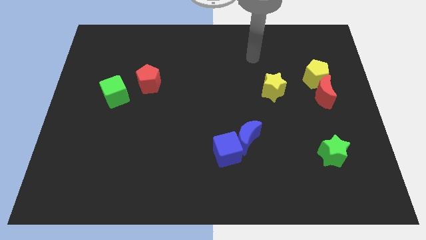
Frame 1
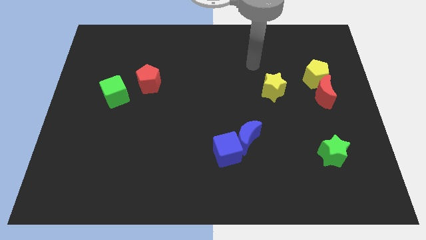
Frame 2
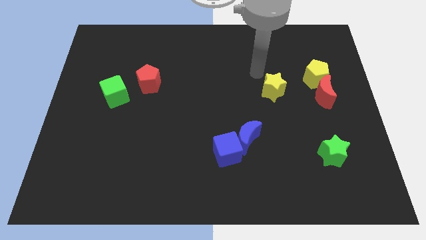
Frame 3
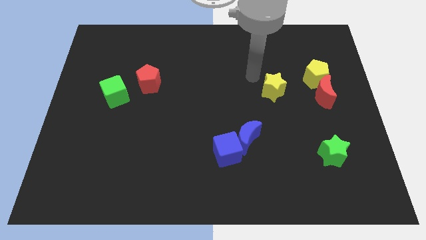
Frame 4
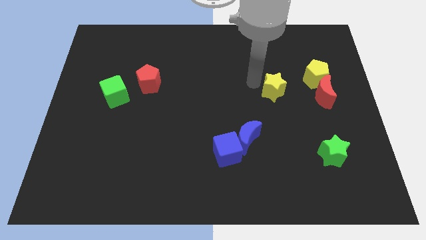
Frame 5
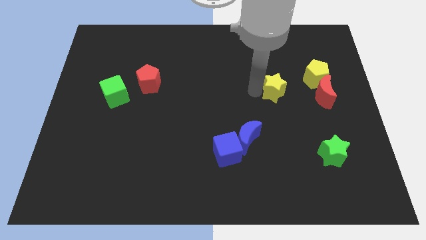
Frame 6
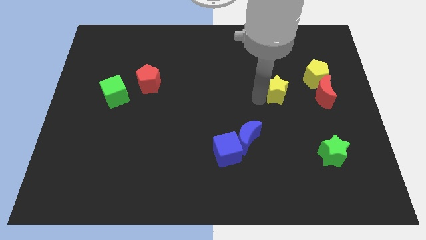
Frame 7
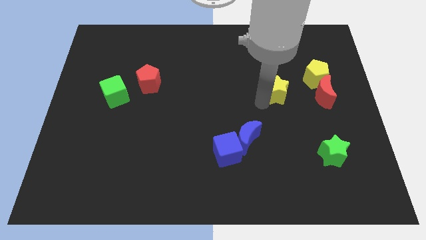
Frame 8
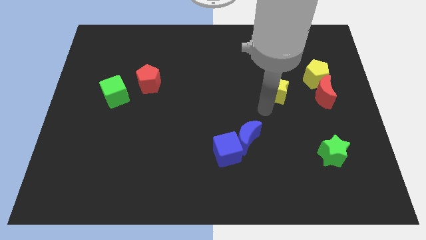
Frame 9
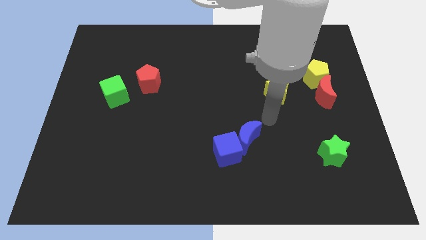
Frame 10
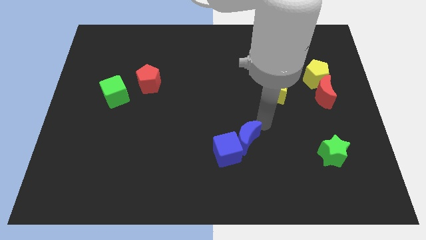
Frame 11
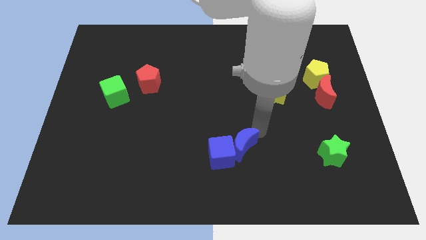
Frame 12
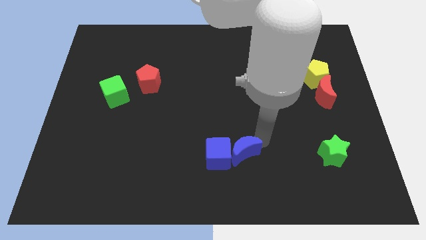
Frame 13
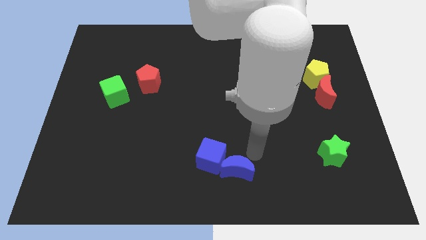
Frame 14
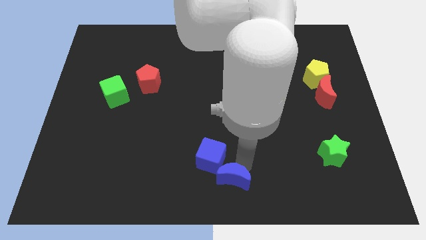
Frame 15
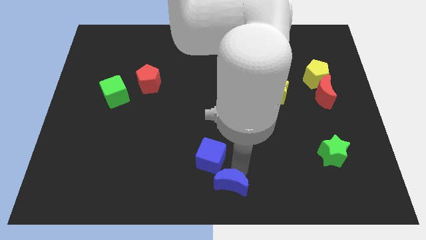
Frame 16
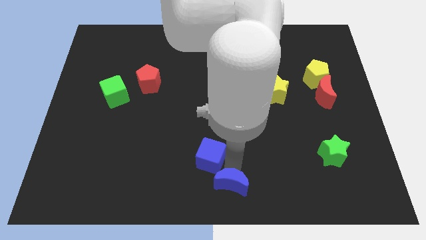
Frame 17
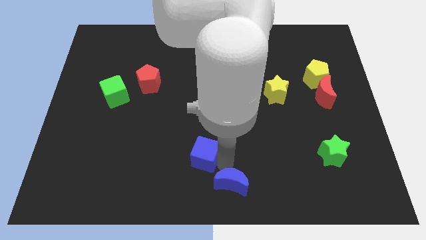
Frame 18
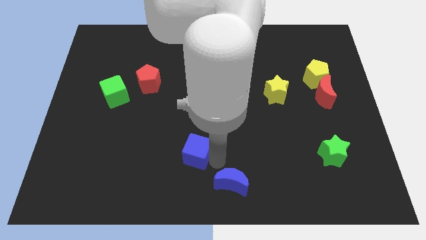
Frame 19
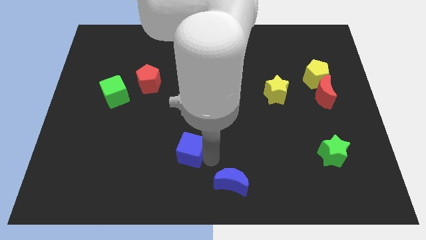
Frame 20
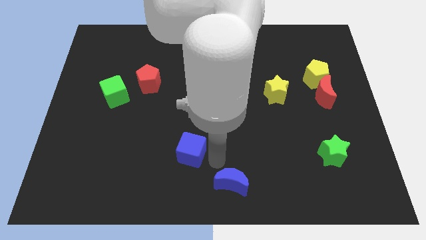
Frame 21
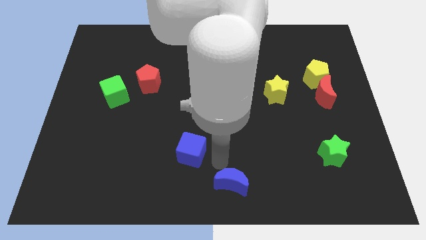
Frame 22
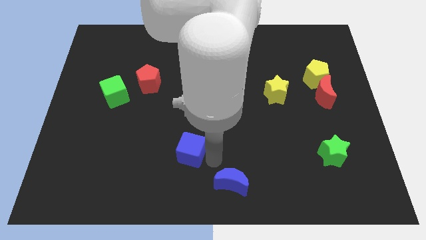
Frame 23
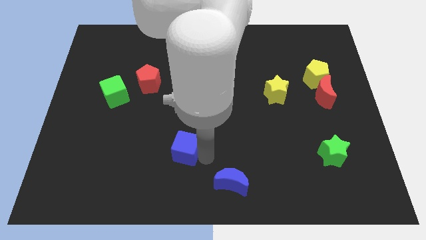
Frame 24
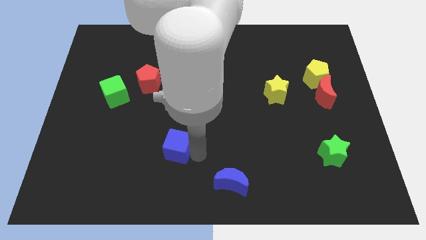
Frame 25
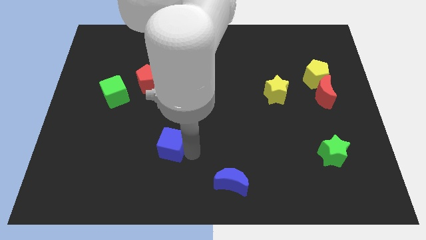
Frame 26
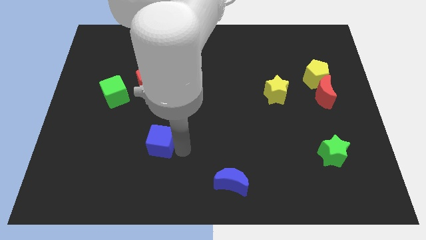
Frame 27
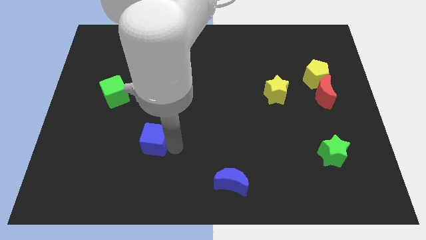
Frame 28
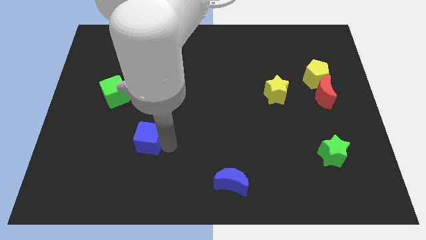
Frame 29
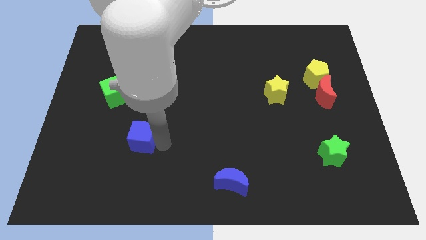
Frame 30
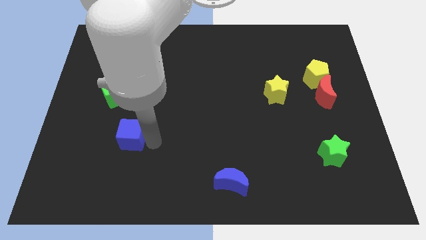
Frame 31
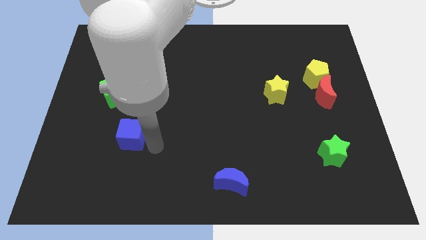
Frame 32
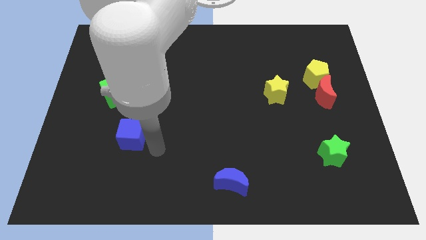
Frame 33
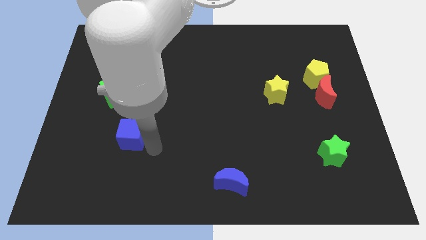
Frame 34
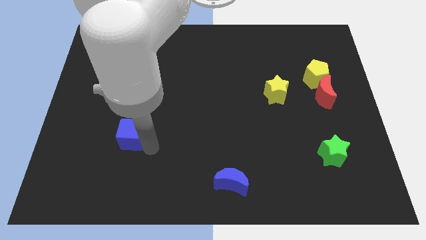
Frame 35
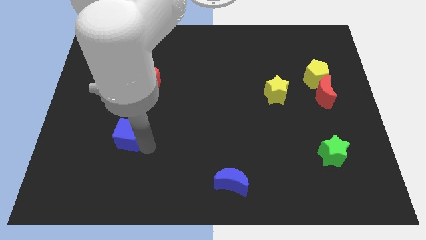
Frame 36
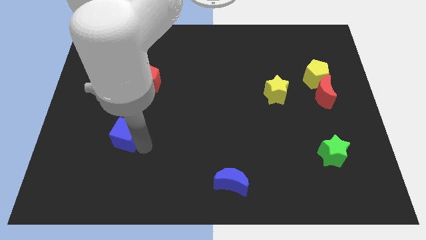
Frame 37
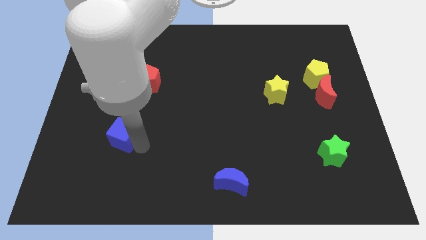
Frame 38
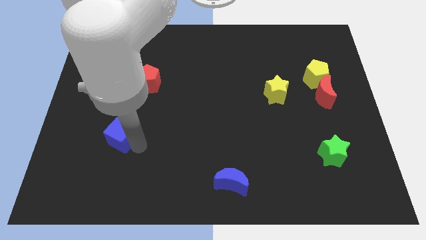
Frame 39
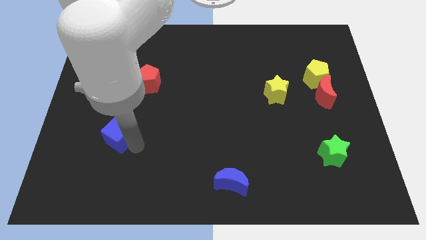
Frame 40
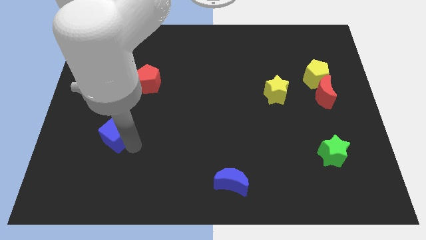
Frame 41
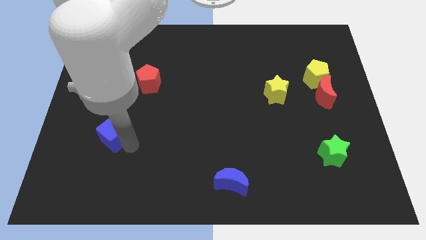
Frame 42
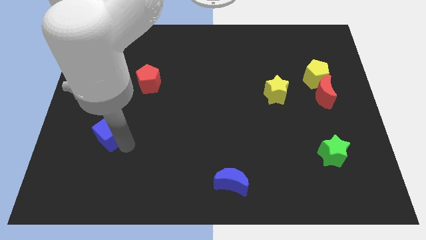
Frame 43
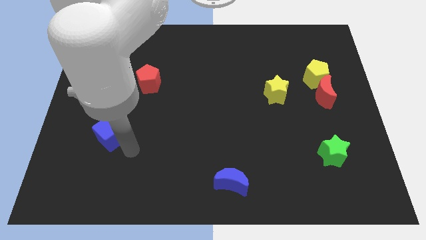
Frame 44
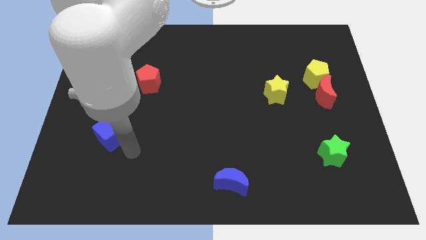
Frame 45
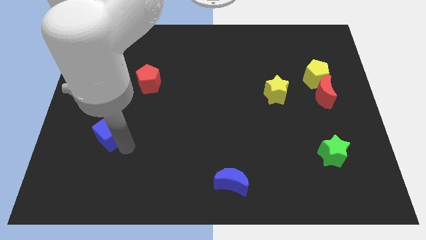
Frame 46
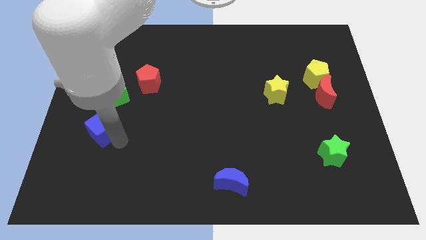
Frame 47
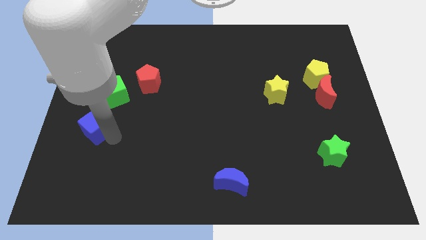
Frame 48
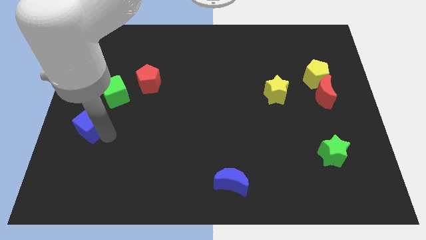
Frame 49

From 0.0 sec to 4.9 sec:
put the blue cube to the left side

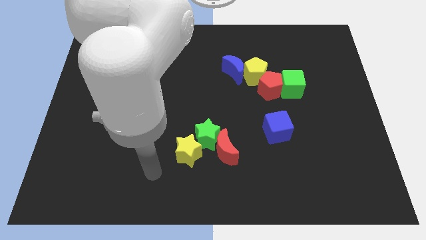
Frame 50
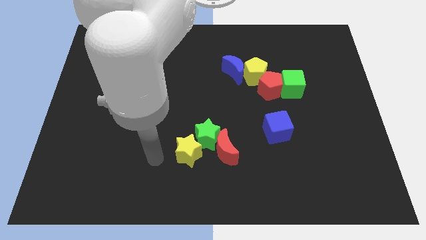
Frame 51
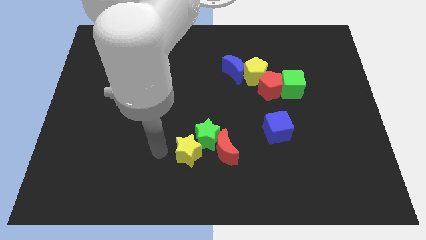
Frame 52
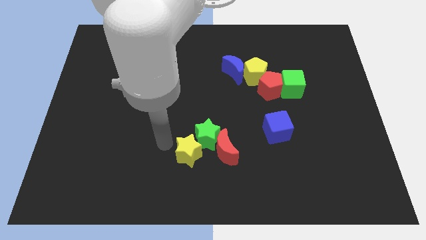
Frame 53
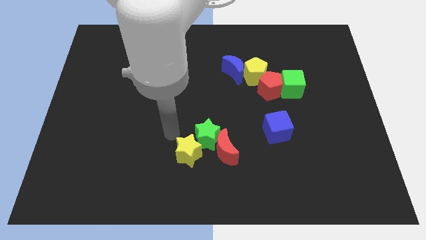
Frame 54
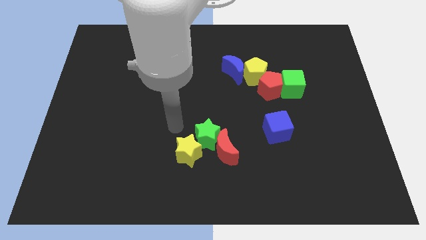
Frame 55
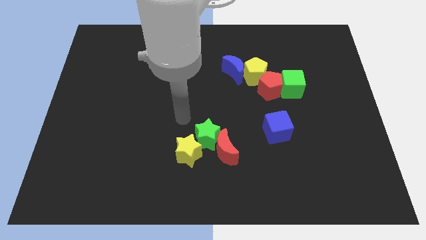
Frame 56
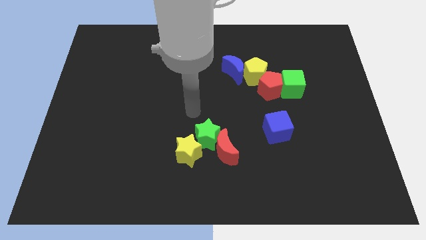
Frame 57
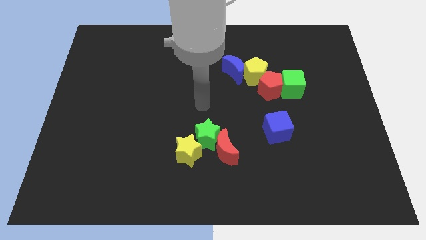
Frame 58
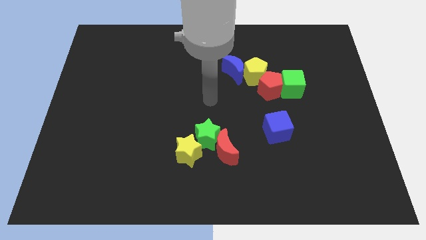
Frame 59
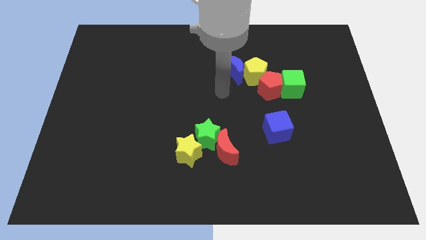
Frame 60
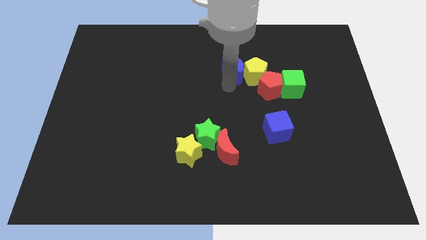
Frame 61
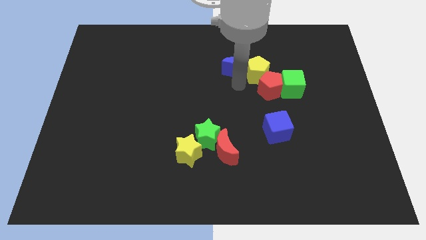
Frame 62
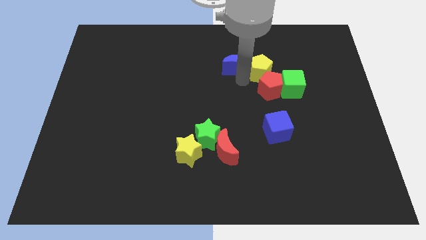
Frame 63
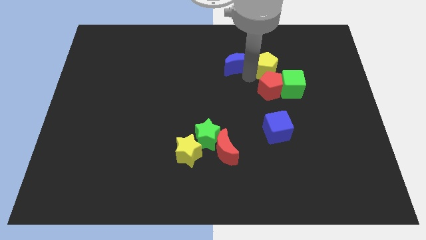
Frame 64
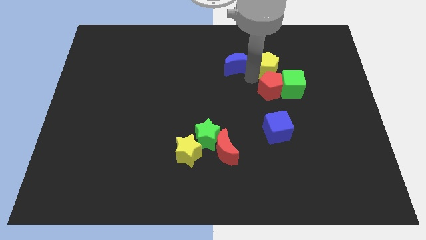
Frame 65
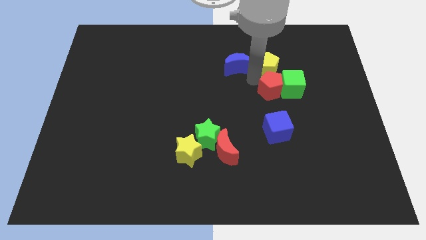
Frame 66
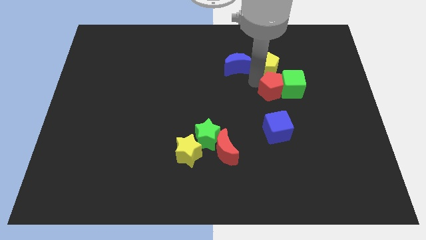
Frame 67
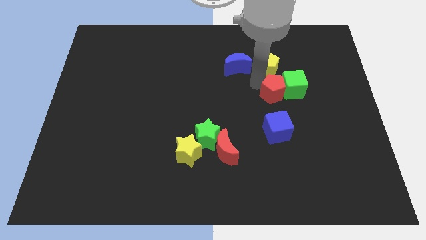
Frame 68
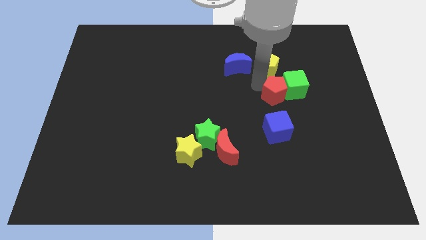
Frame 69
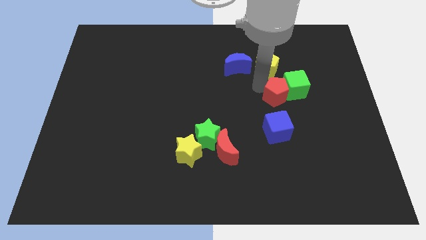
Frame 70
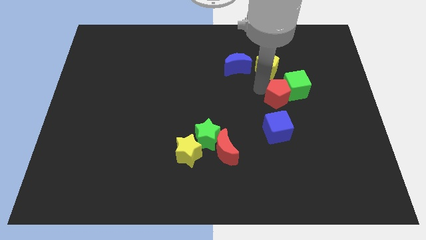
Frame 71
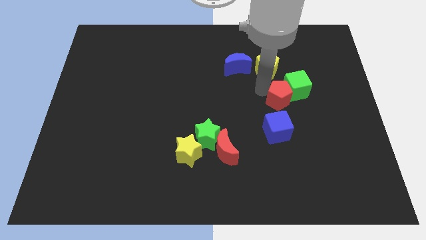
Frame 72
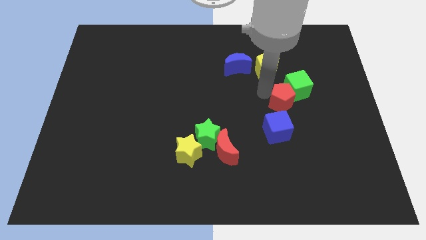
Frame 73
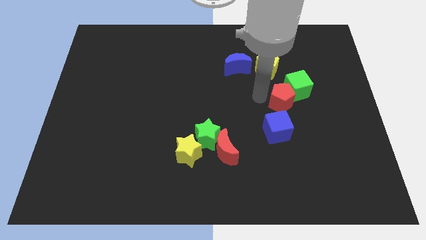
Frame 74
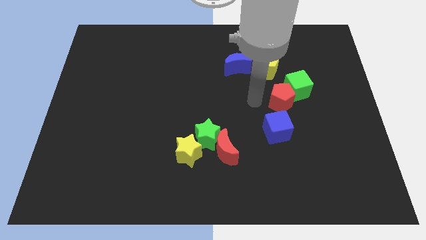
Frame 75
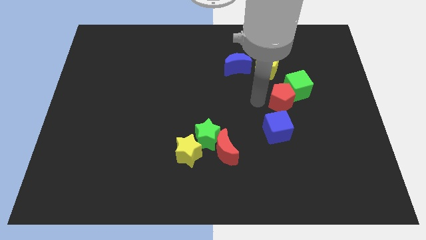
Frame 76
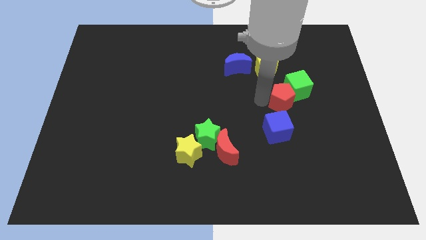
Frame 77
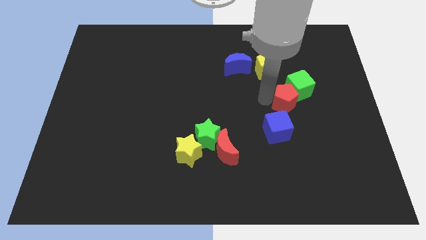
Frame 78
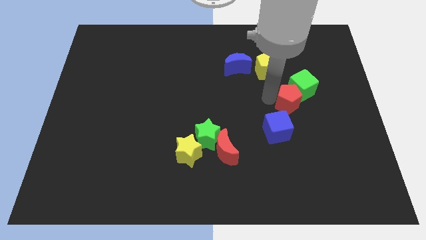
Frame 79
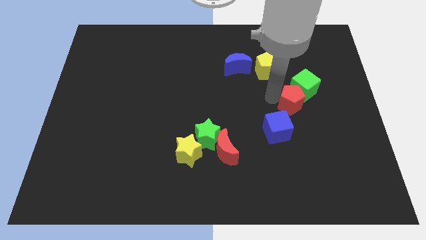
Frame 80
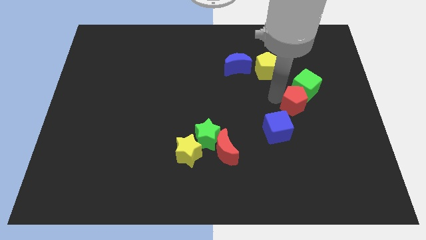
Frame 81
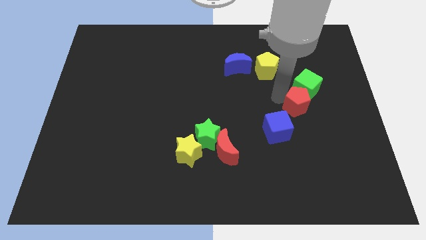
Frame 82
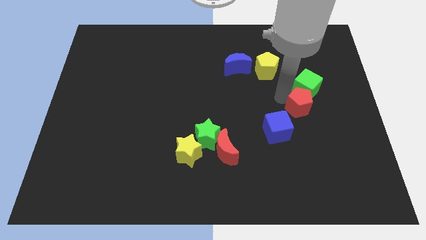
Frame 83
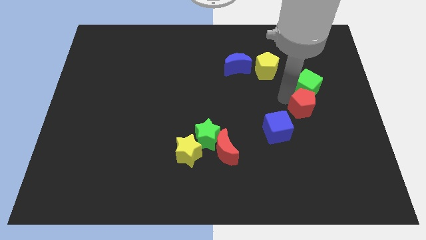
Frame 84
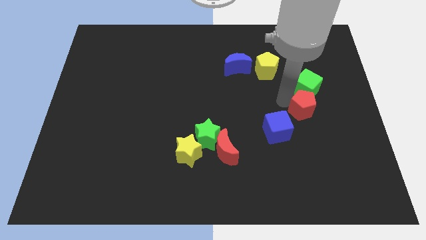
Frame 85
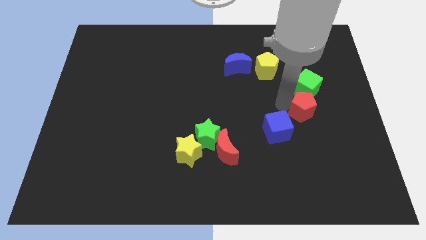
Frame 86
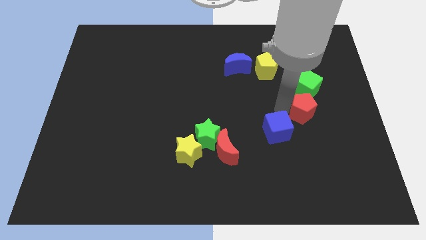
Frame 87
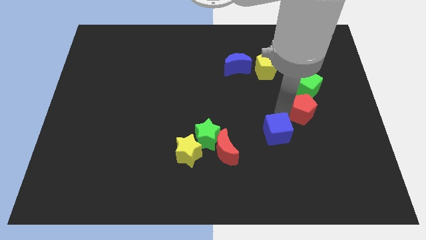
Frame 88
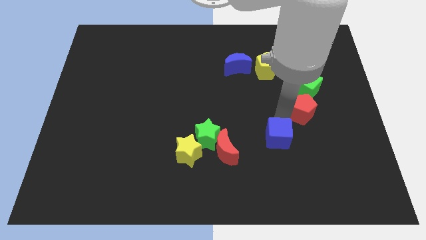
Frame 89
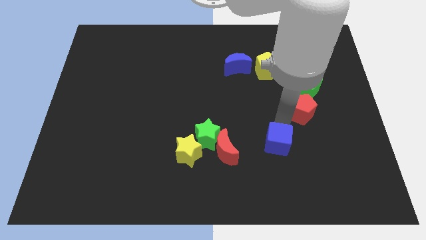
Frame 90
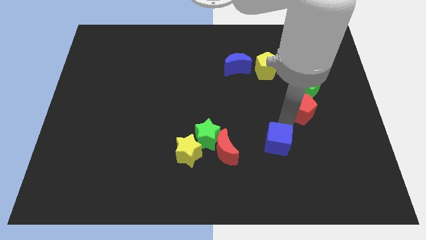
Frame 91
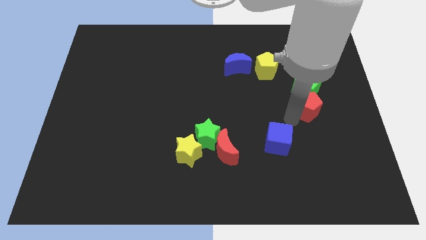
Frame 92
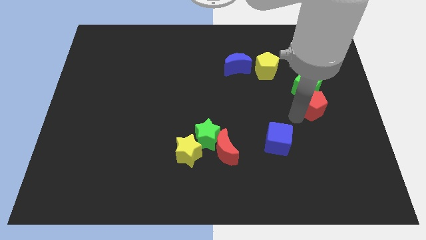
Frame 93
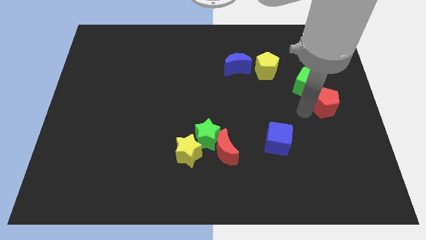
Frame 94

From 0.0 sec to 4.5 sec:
push the red pentagon to the center right
